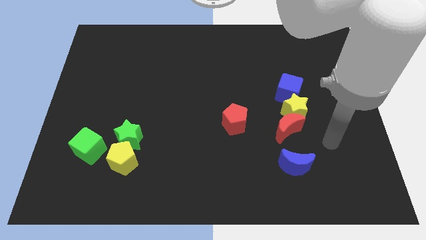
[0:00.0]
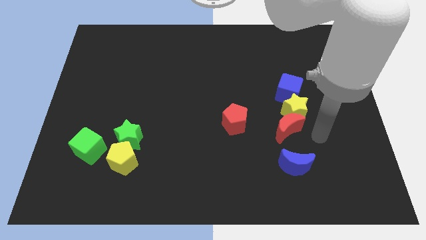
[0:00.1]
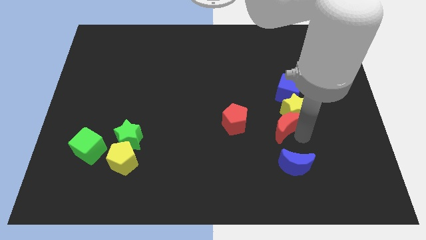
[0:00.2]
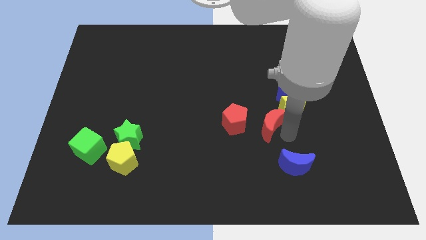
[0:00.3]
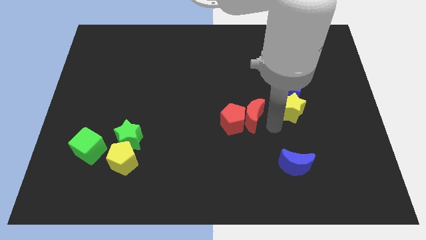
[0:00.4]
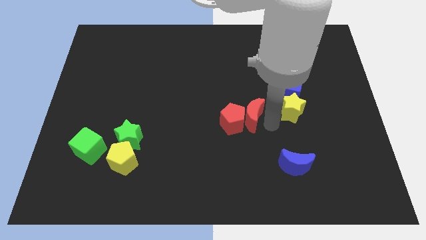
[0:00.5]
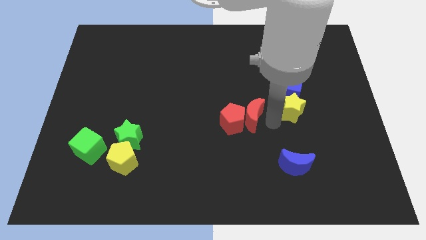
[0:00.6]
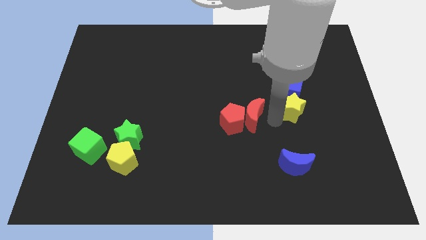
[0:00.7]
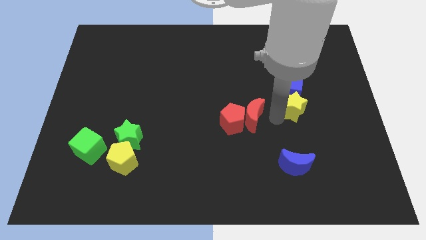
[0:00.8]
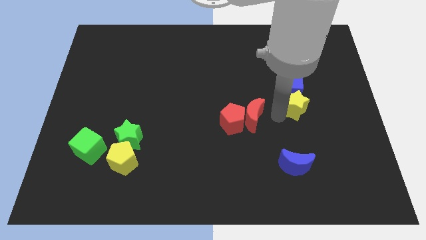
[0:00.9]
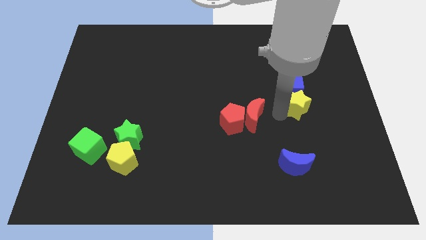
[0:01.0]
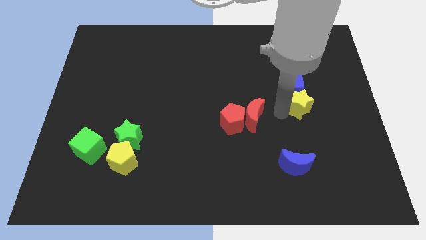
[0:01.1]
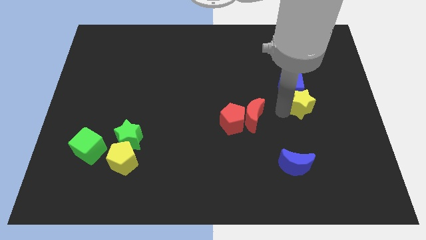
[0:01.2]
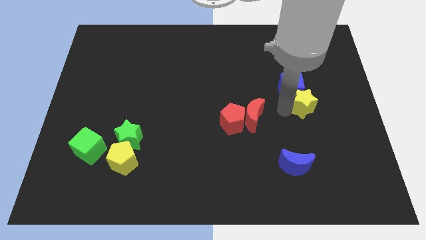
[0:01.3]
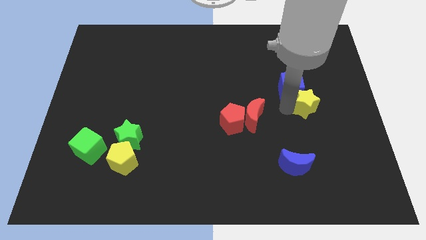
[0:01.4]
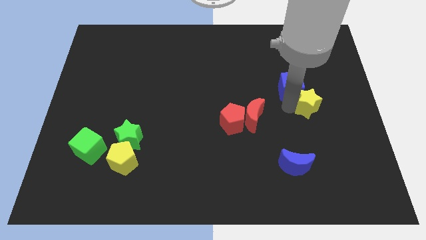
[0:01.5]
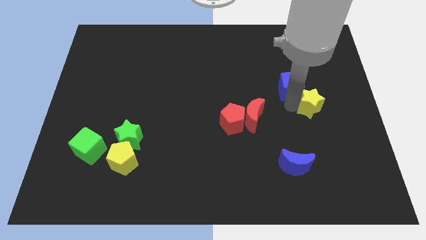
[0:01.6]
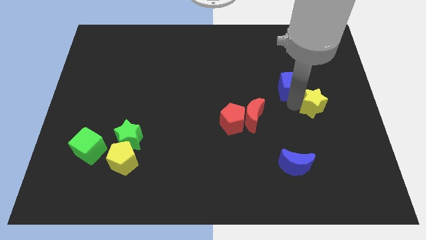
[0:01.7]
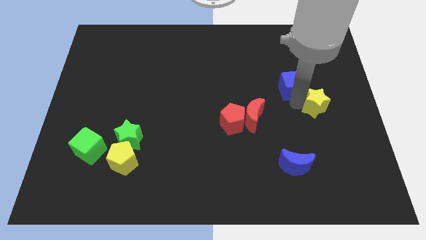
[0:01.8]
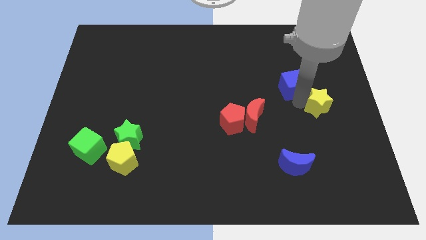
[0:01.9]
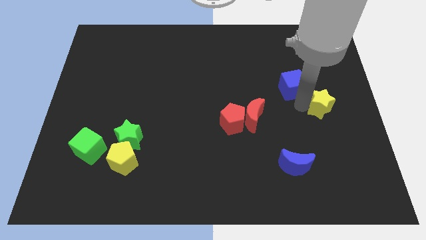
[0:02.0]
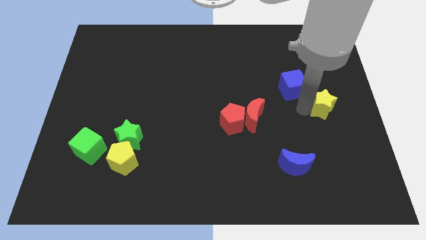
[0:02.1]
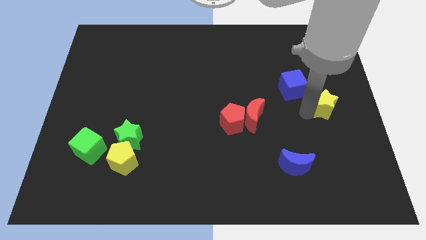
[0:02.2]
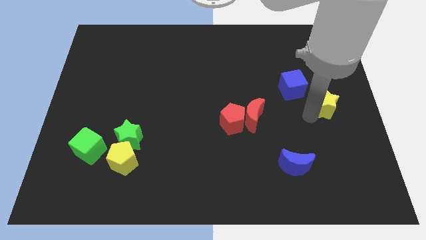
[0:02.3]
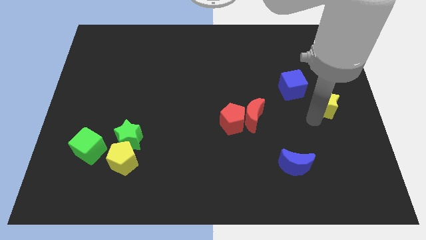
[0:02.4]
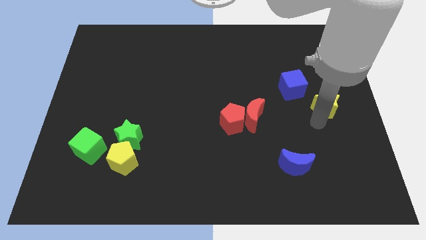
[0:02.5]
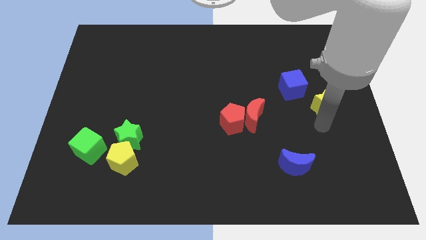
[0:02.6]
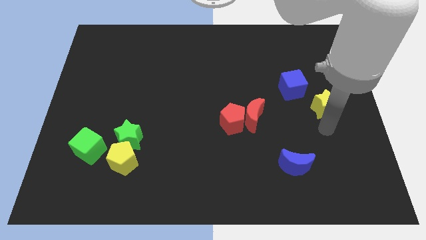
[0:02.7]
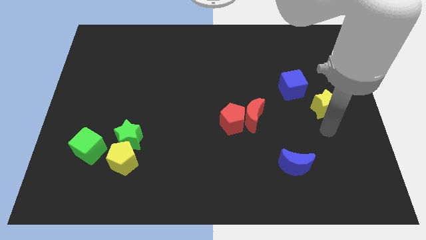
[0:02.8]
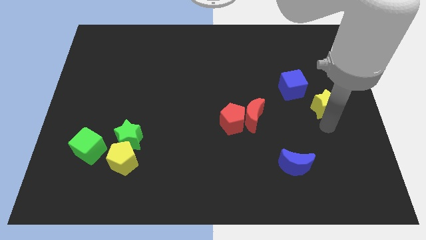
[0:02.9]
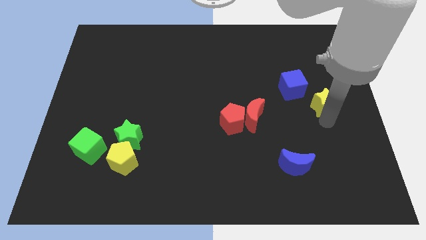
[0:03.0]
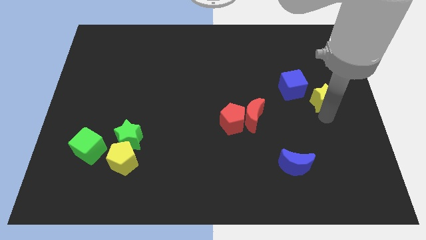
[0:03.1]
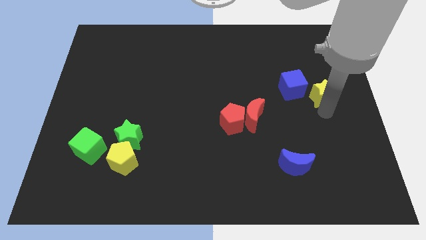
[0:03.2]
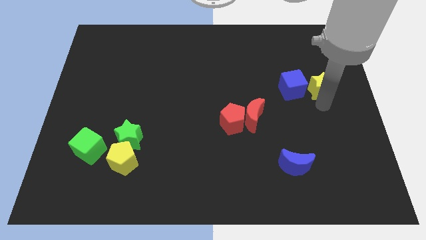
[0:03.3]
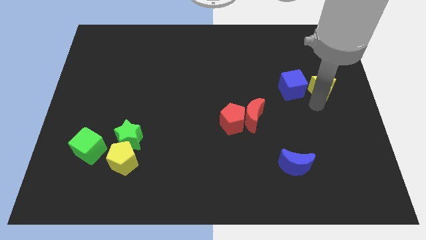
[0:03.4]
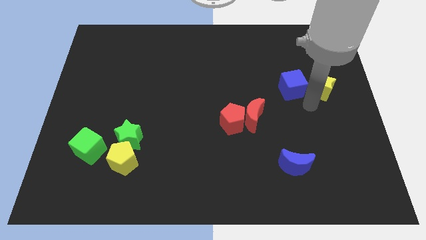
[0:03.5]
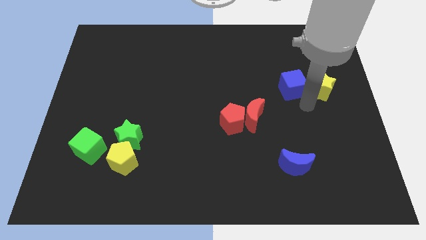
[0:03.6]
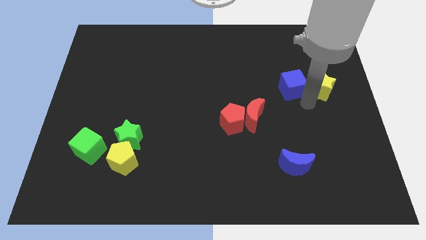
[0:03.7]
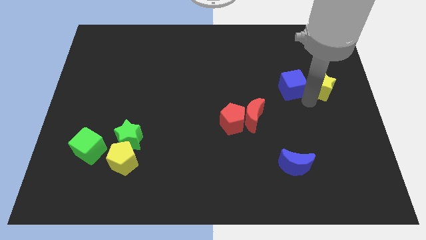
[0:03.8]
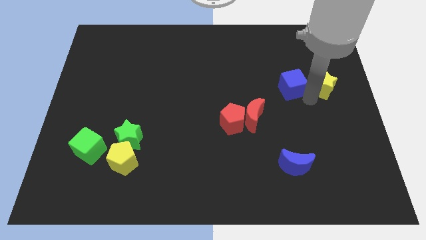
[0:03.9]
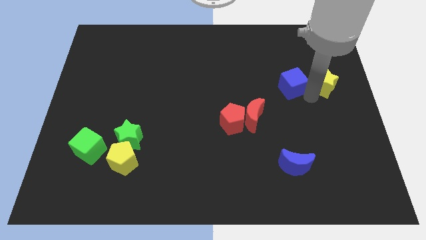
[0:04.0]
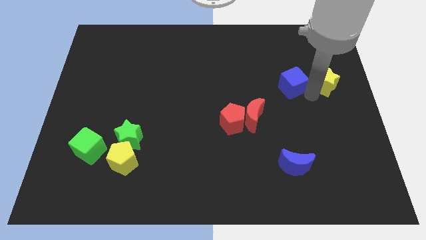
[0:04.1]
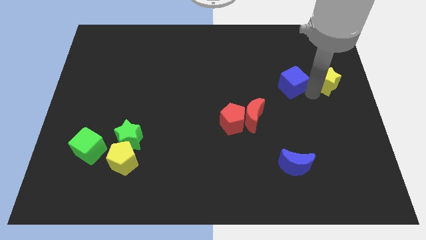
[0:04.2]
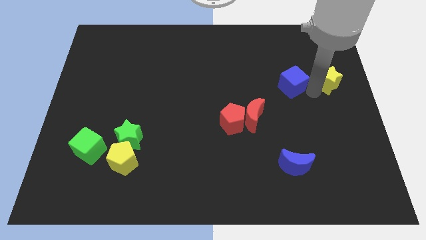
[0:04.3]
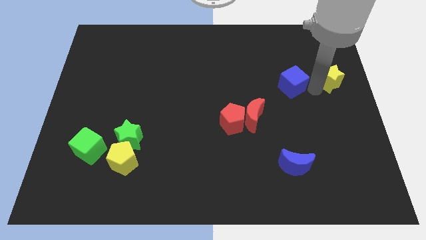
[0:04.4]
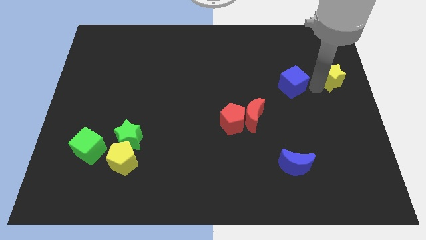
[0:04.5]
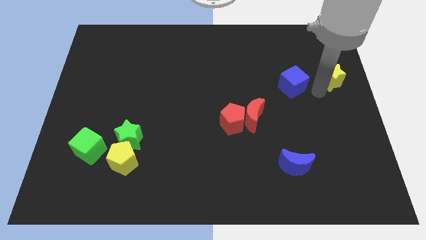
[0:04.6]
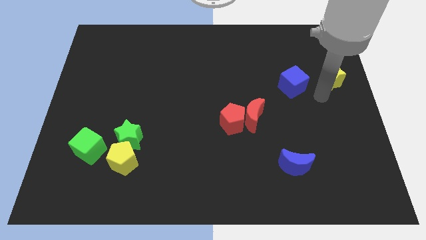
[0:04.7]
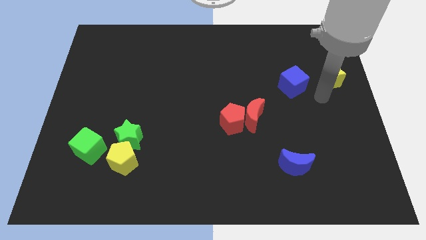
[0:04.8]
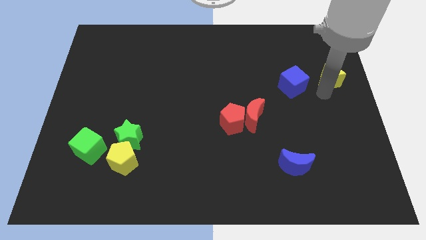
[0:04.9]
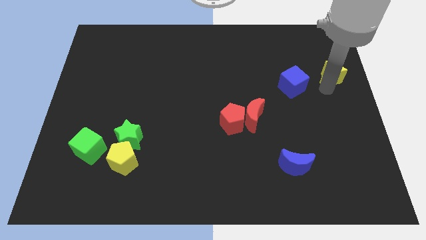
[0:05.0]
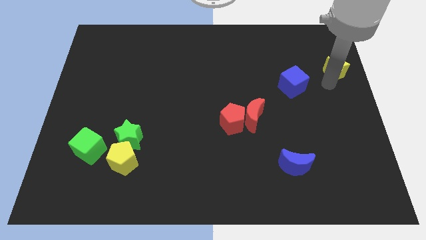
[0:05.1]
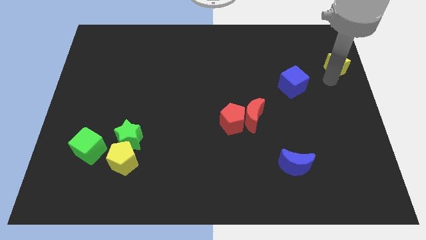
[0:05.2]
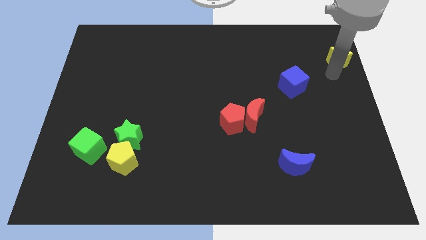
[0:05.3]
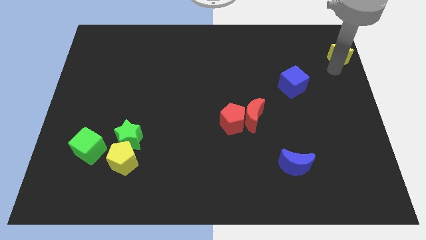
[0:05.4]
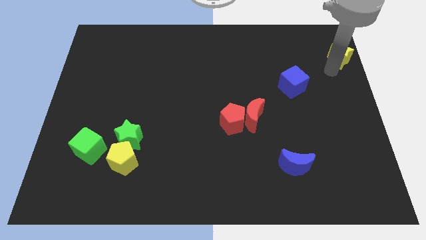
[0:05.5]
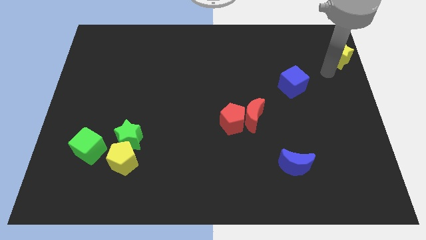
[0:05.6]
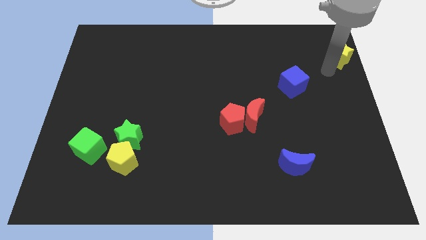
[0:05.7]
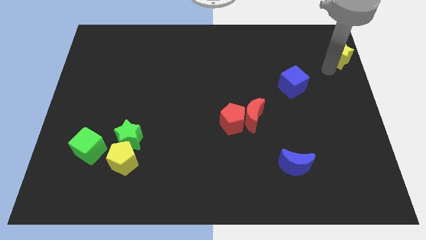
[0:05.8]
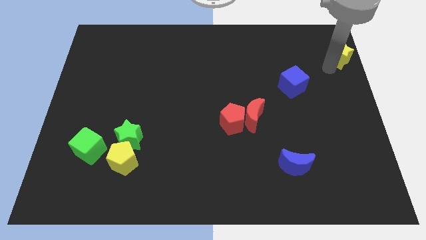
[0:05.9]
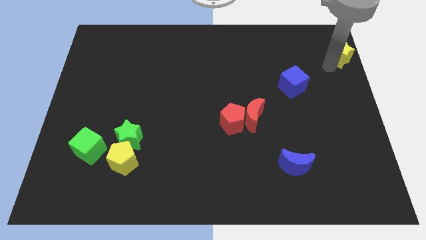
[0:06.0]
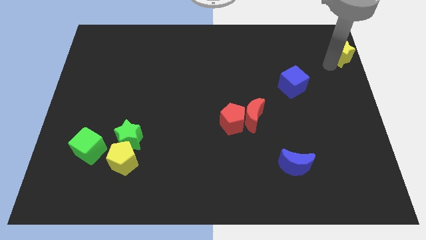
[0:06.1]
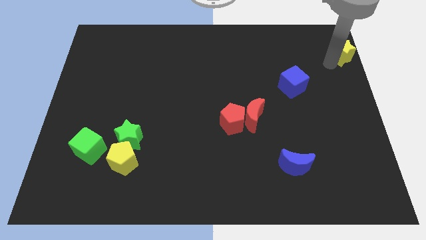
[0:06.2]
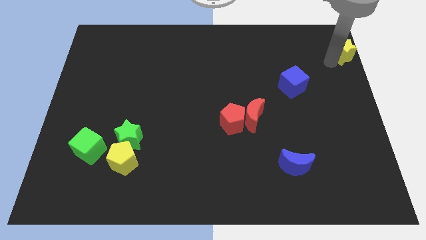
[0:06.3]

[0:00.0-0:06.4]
slide the yellow star to the top right
